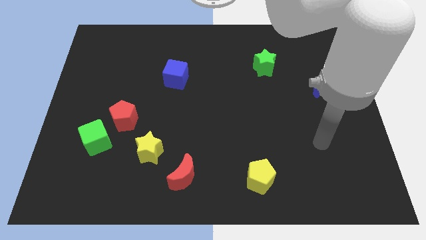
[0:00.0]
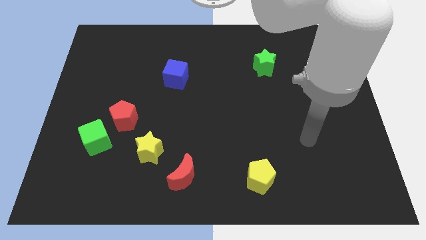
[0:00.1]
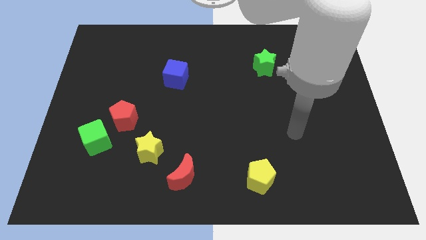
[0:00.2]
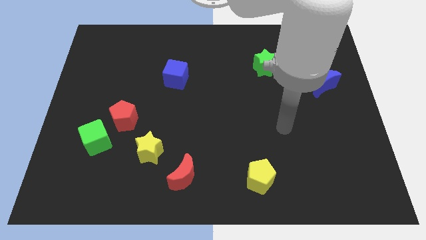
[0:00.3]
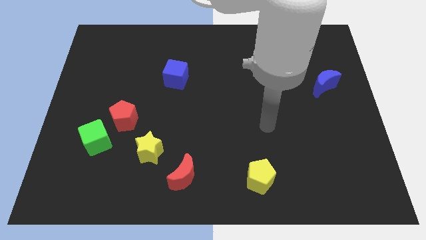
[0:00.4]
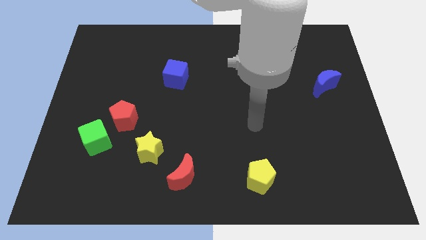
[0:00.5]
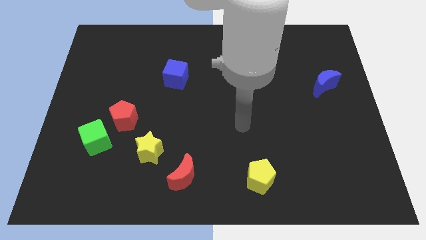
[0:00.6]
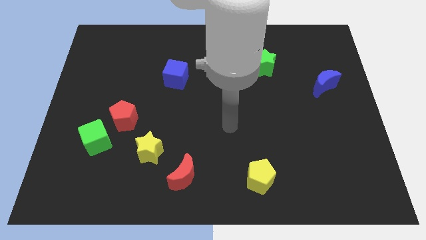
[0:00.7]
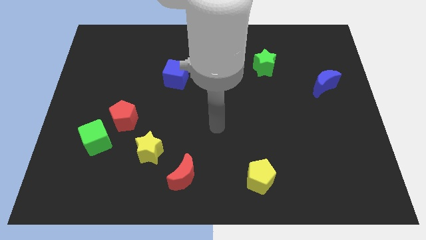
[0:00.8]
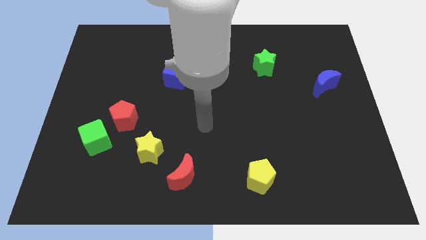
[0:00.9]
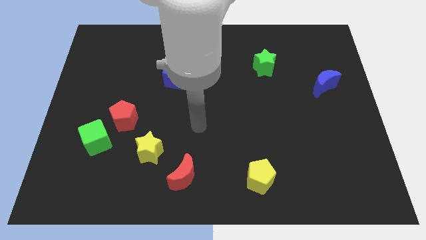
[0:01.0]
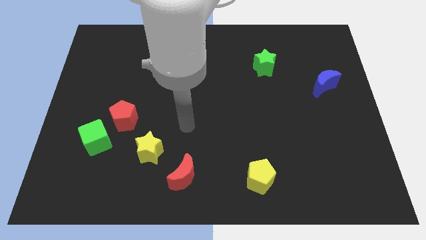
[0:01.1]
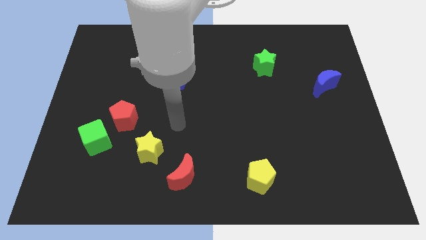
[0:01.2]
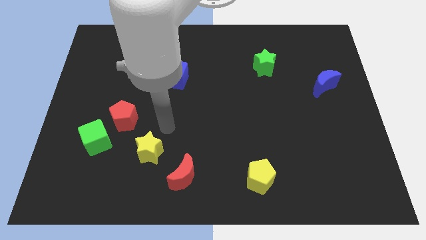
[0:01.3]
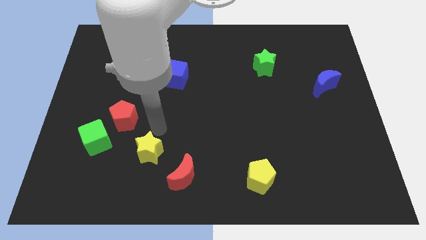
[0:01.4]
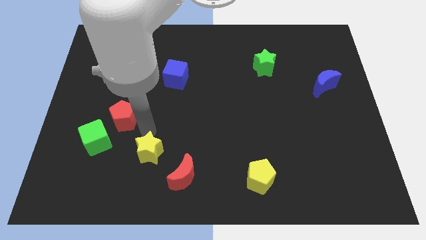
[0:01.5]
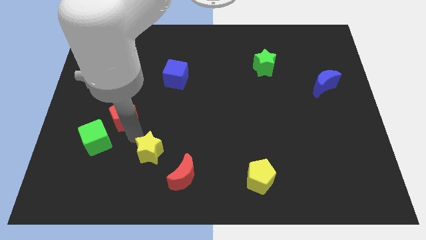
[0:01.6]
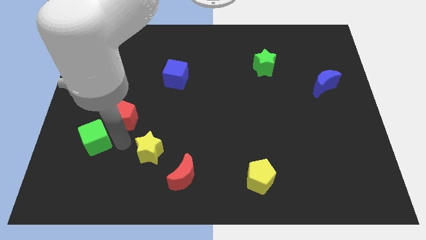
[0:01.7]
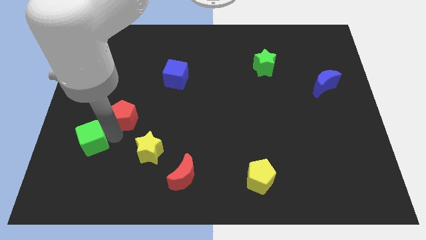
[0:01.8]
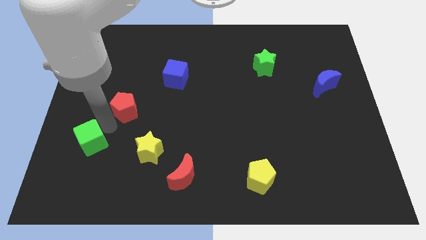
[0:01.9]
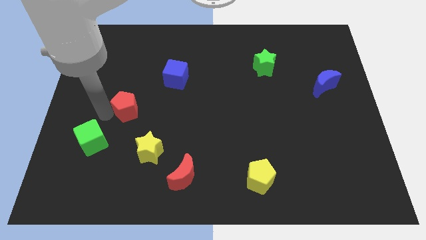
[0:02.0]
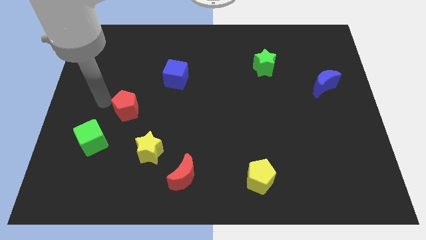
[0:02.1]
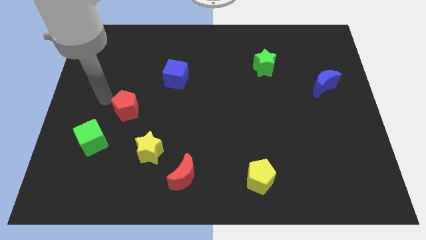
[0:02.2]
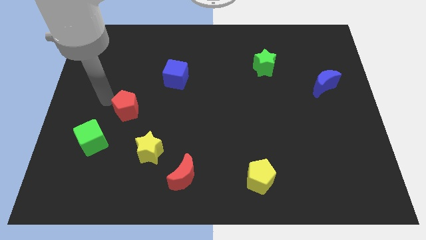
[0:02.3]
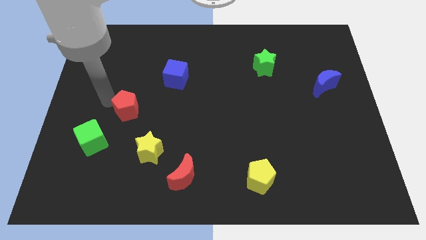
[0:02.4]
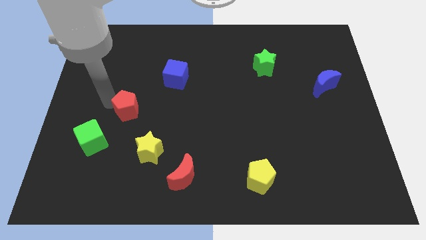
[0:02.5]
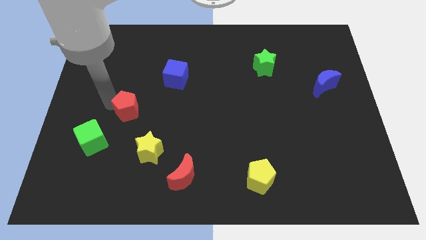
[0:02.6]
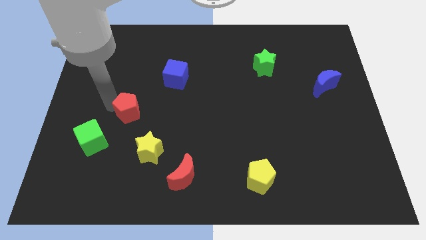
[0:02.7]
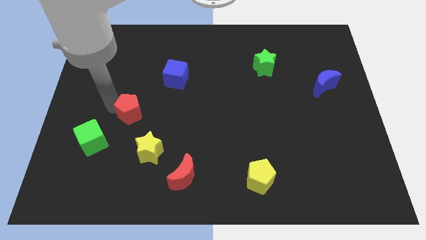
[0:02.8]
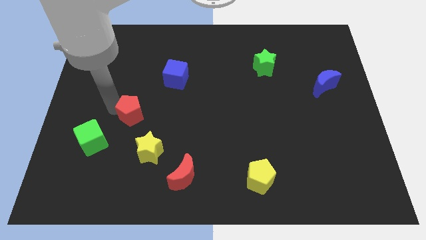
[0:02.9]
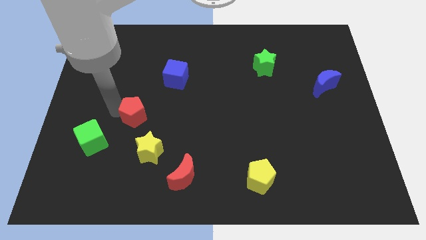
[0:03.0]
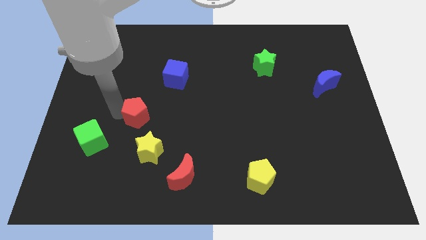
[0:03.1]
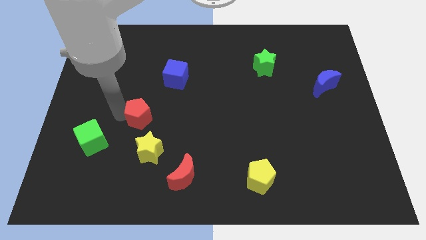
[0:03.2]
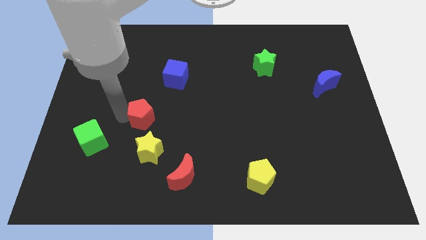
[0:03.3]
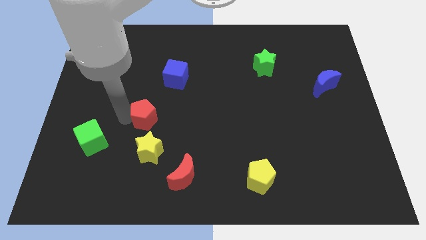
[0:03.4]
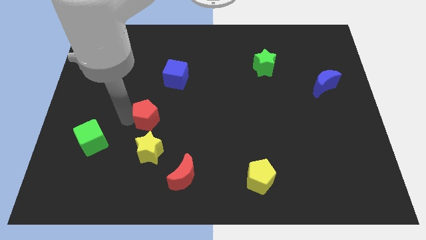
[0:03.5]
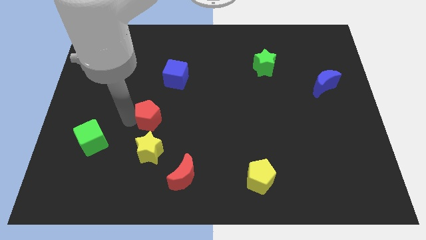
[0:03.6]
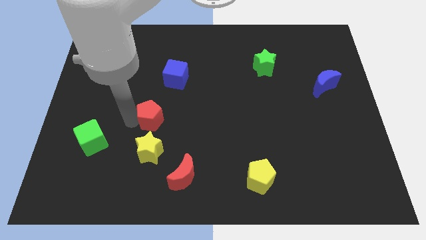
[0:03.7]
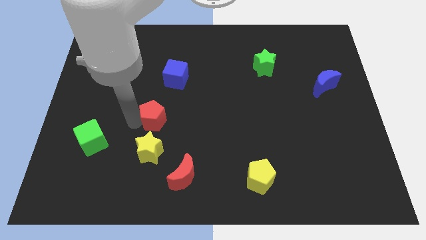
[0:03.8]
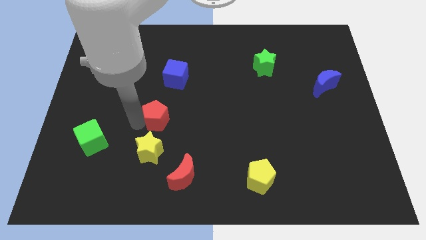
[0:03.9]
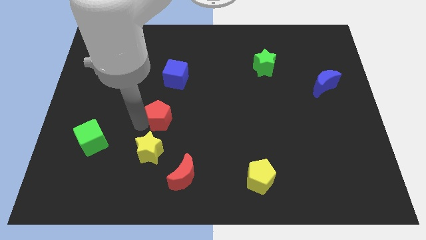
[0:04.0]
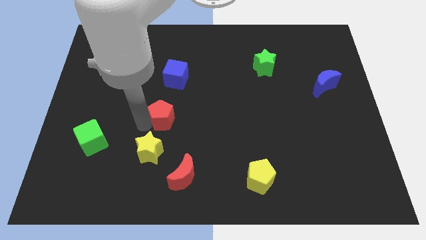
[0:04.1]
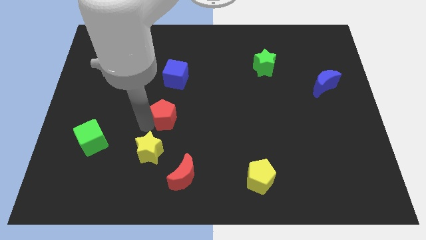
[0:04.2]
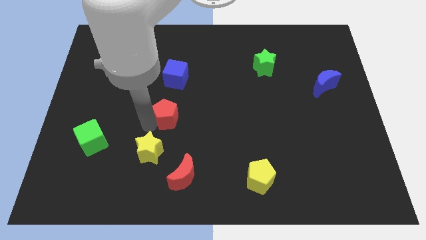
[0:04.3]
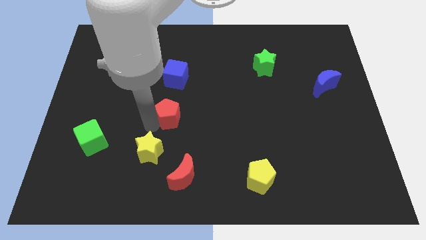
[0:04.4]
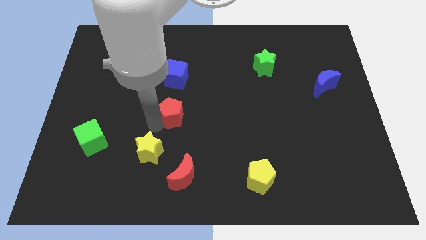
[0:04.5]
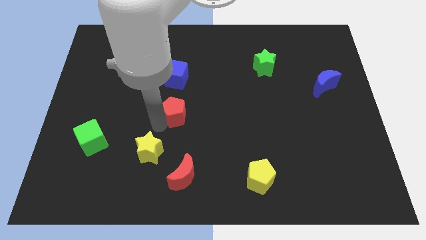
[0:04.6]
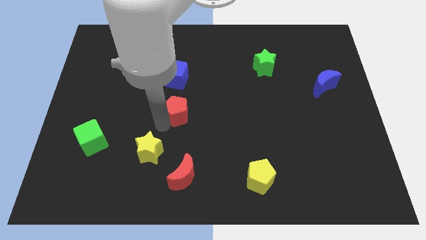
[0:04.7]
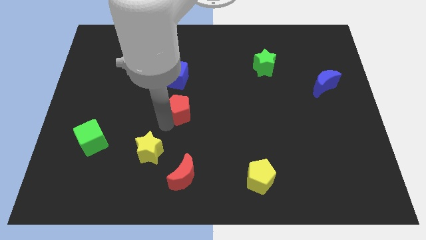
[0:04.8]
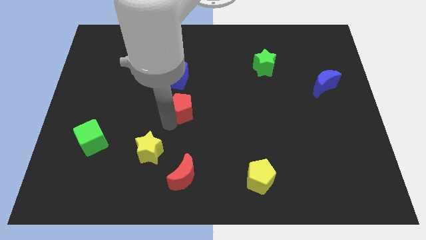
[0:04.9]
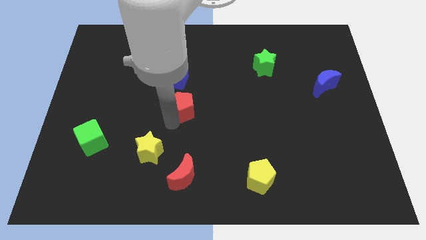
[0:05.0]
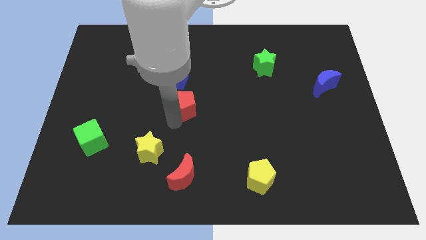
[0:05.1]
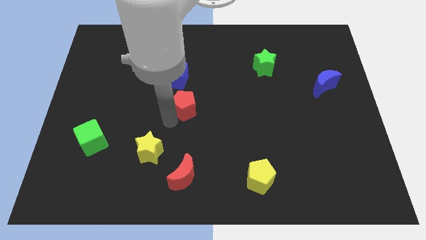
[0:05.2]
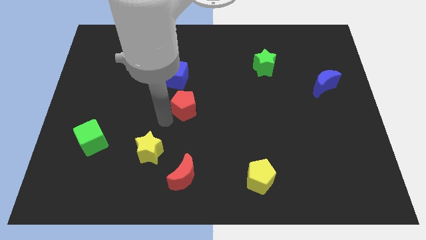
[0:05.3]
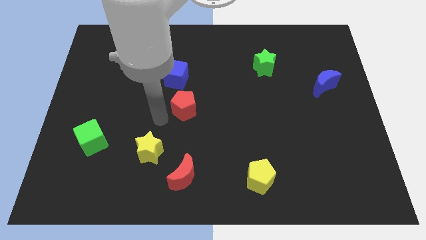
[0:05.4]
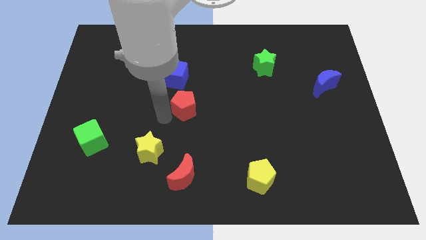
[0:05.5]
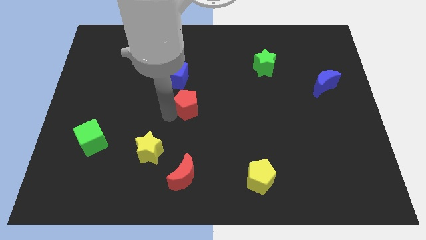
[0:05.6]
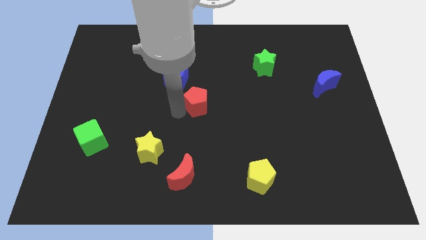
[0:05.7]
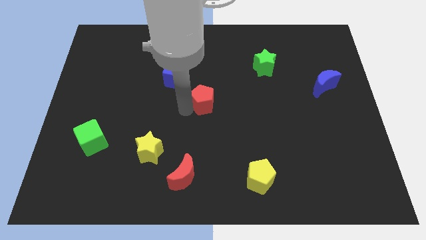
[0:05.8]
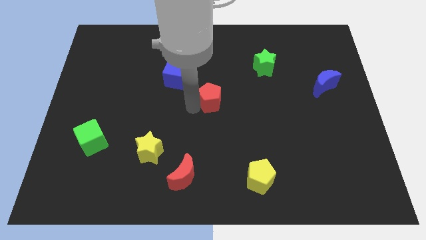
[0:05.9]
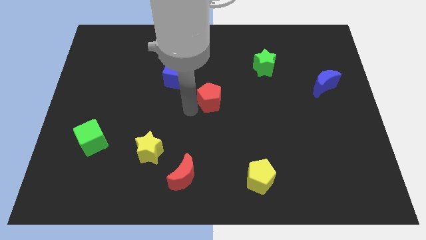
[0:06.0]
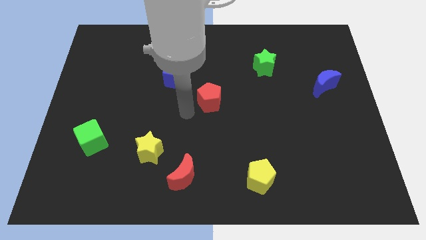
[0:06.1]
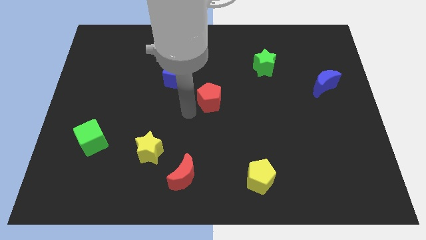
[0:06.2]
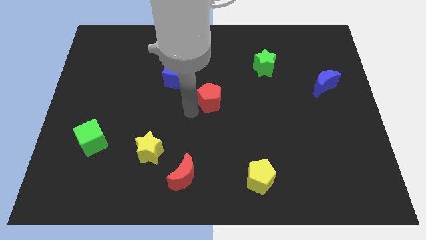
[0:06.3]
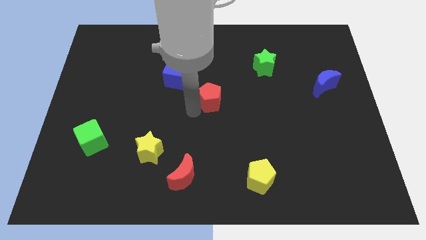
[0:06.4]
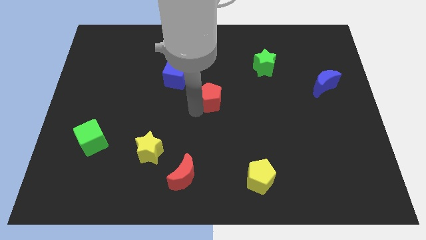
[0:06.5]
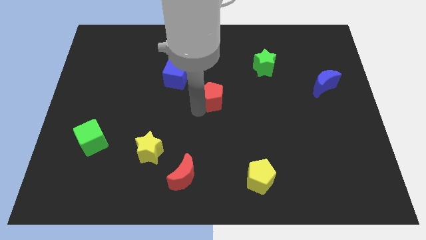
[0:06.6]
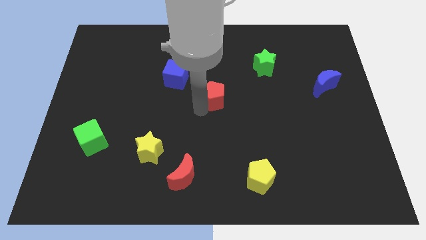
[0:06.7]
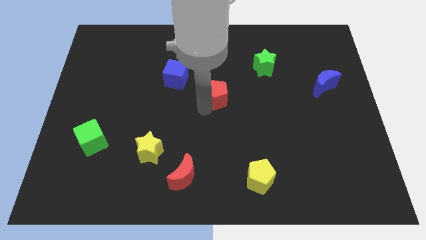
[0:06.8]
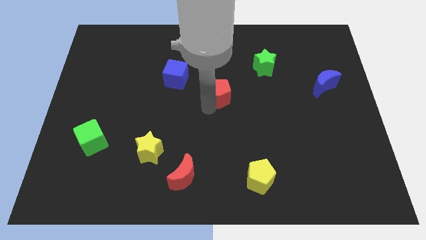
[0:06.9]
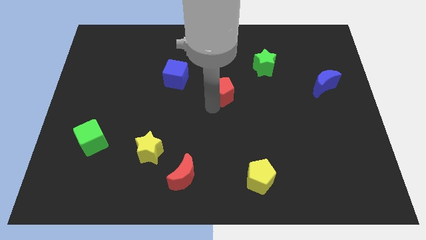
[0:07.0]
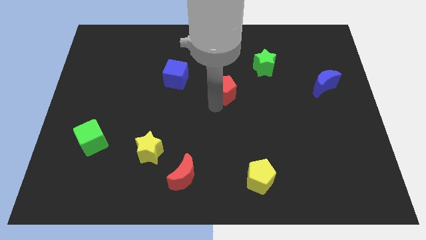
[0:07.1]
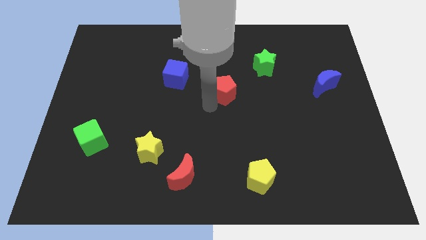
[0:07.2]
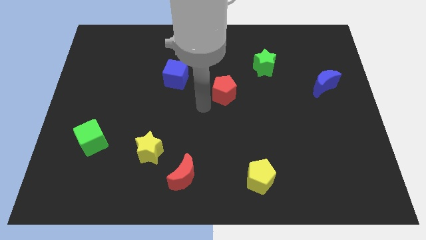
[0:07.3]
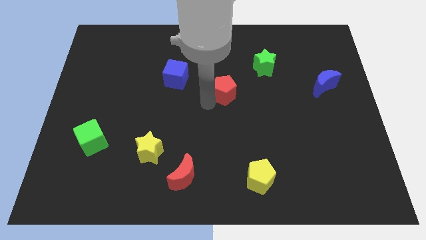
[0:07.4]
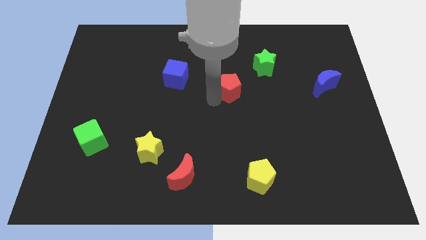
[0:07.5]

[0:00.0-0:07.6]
push the red pentagon to the bottom left side of the green star
